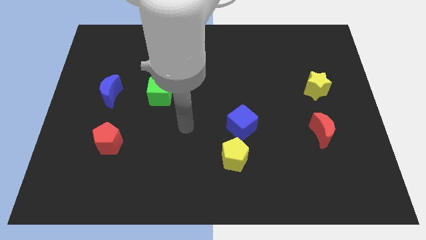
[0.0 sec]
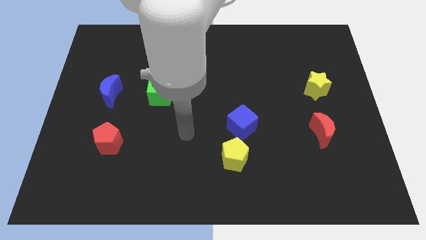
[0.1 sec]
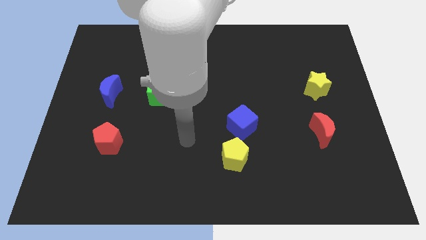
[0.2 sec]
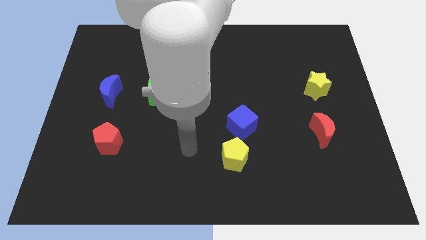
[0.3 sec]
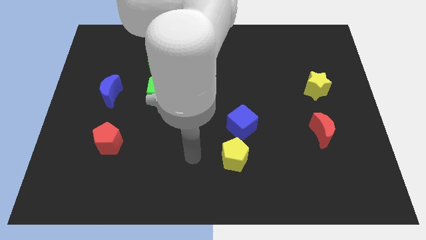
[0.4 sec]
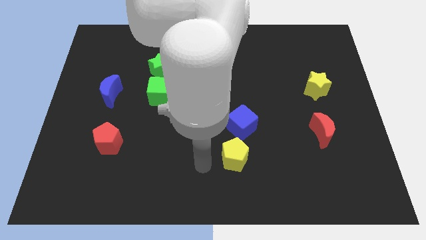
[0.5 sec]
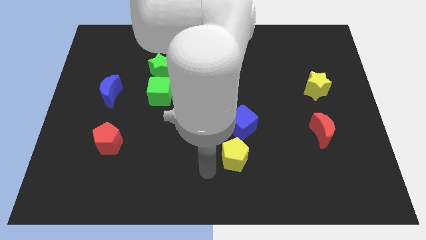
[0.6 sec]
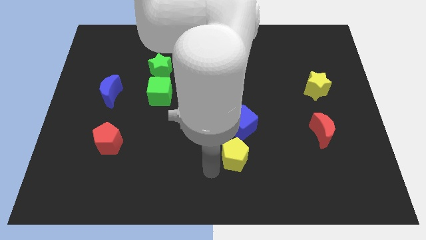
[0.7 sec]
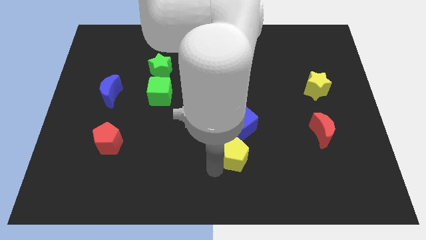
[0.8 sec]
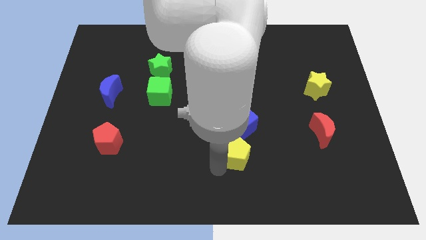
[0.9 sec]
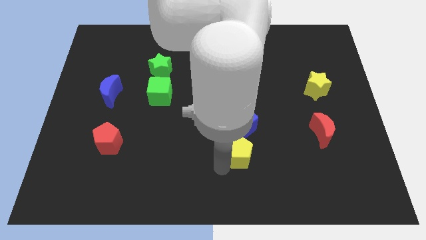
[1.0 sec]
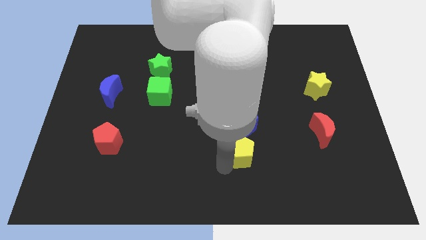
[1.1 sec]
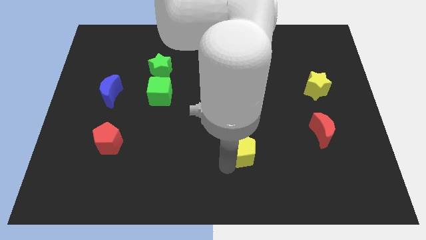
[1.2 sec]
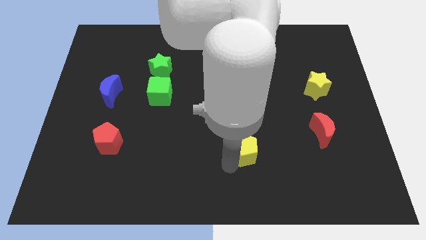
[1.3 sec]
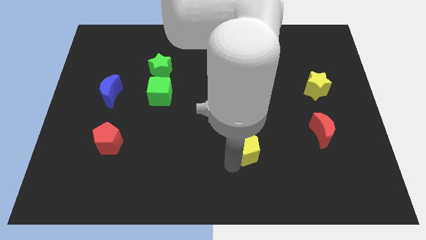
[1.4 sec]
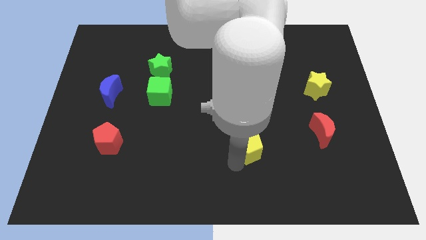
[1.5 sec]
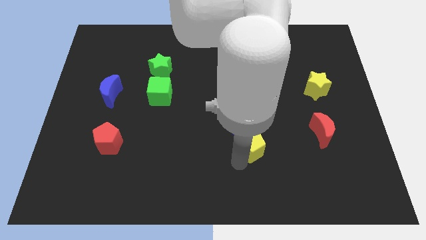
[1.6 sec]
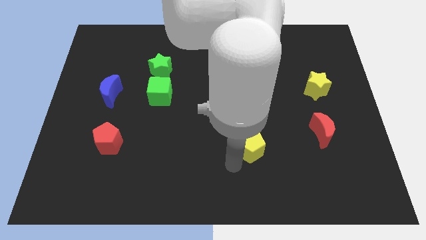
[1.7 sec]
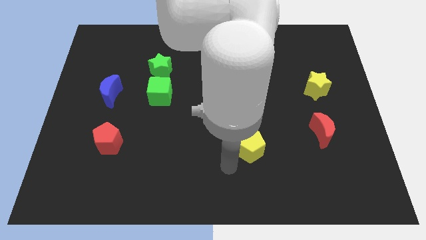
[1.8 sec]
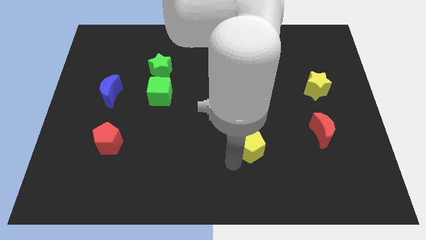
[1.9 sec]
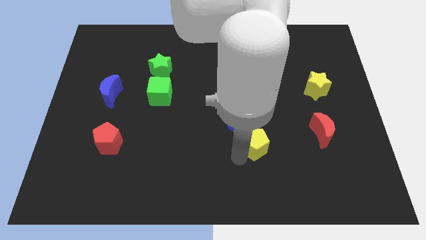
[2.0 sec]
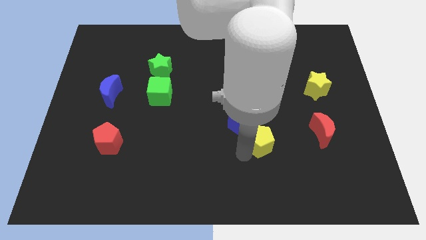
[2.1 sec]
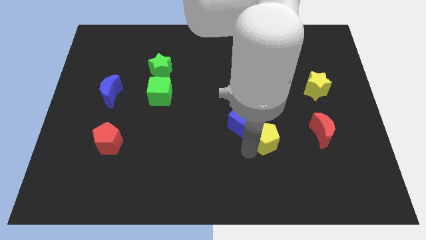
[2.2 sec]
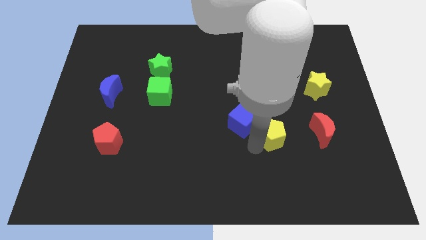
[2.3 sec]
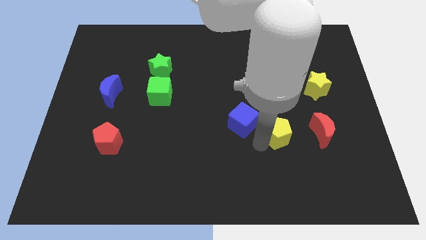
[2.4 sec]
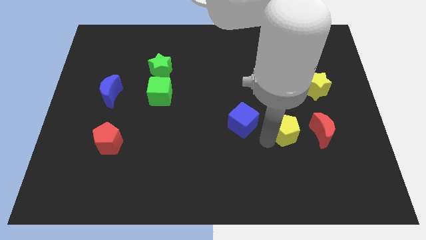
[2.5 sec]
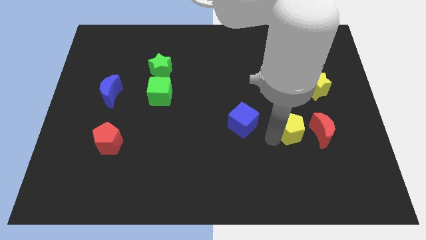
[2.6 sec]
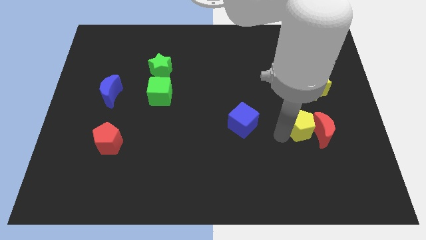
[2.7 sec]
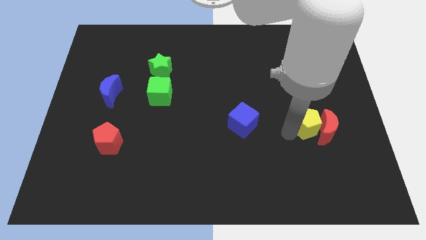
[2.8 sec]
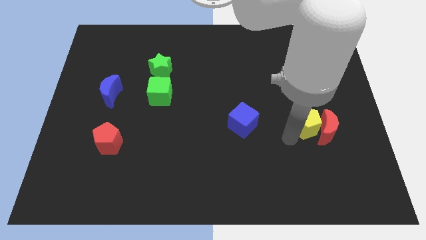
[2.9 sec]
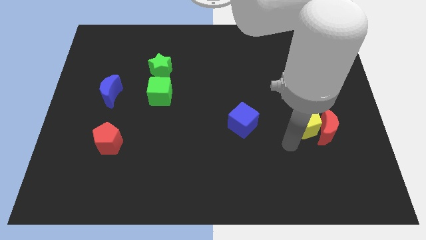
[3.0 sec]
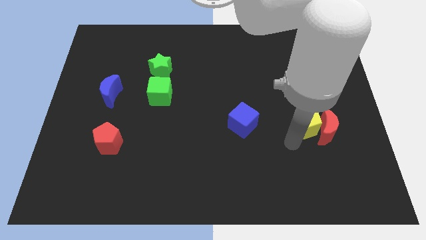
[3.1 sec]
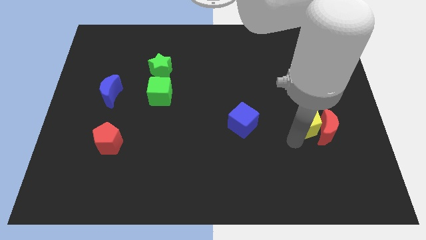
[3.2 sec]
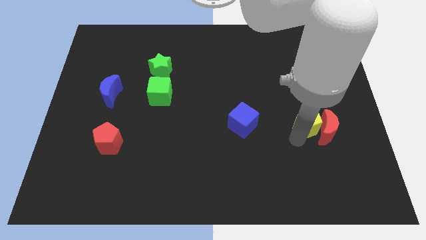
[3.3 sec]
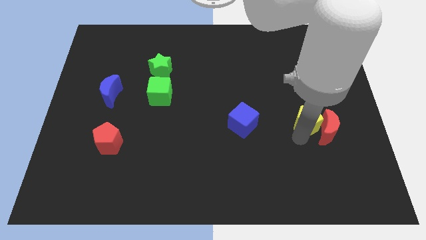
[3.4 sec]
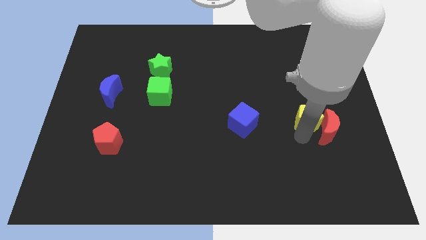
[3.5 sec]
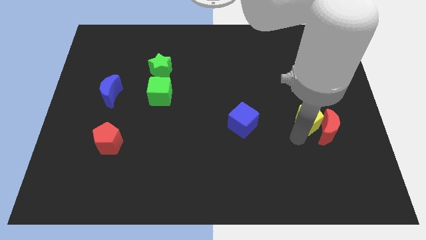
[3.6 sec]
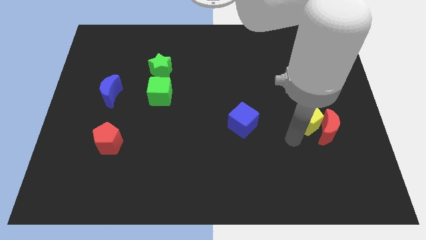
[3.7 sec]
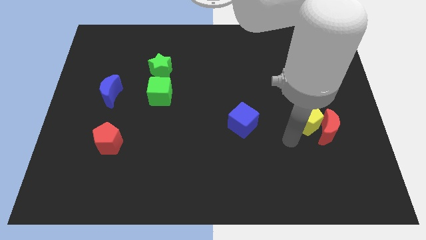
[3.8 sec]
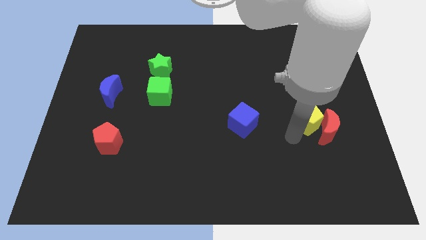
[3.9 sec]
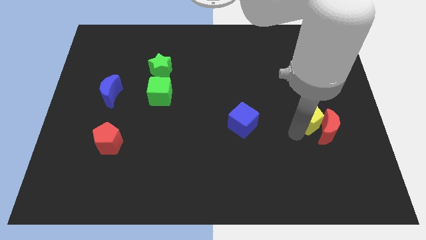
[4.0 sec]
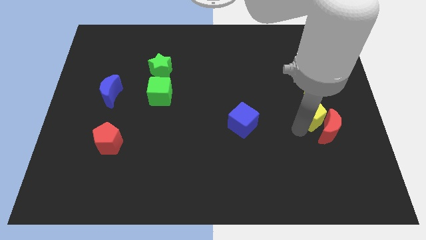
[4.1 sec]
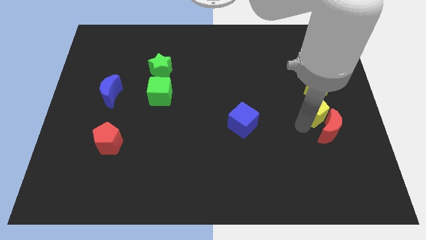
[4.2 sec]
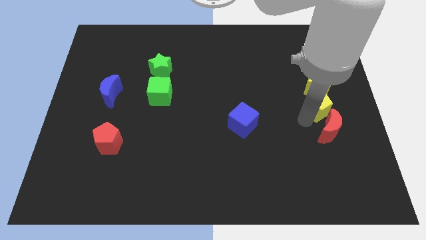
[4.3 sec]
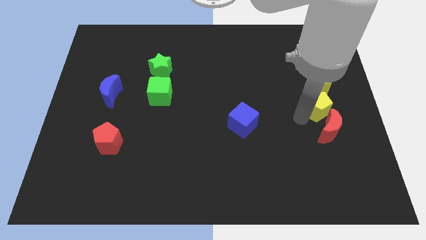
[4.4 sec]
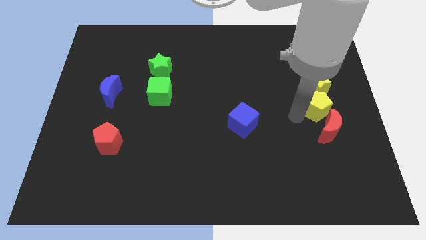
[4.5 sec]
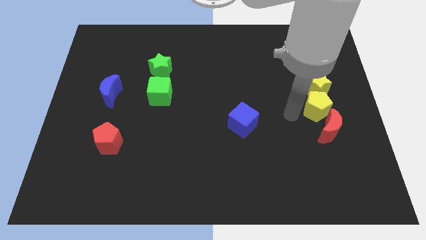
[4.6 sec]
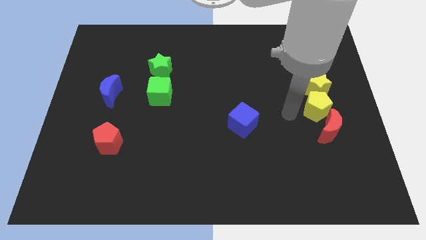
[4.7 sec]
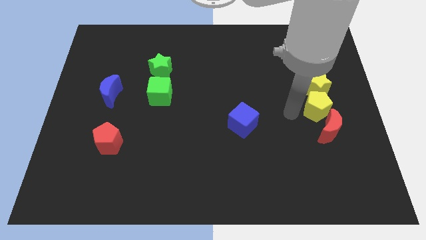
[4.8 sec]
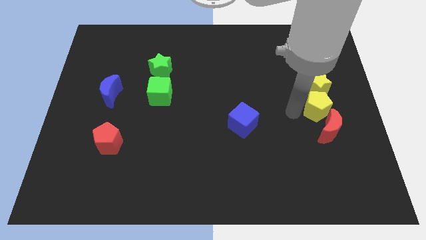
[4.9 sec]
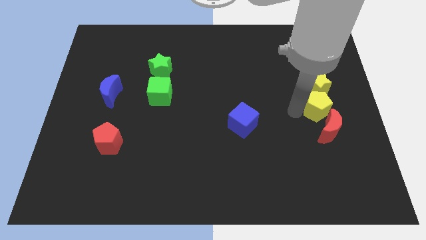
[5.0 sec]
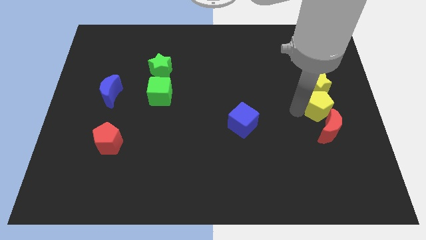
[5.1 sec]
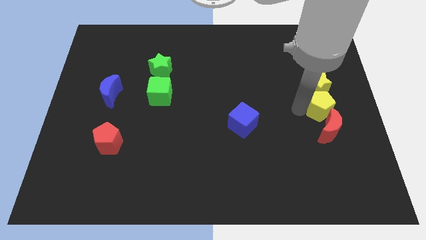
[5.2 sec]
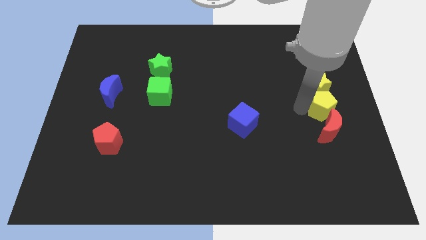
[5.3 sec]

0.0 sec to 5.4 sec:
put the yellow pentagon to the center right

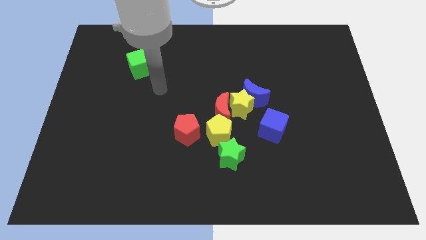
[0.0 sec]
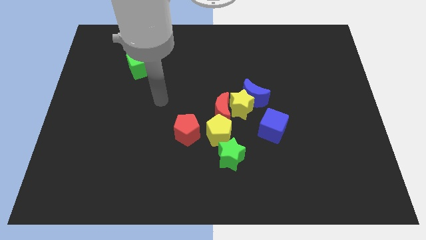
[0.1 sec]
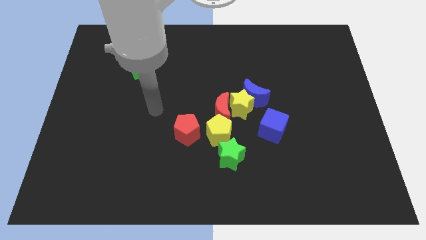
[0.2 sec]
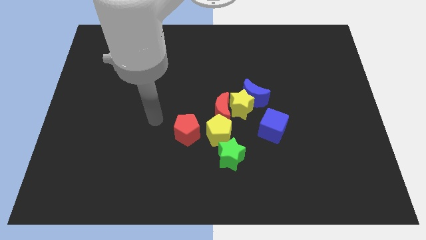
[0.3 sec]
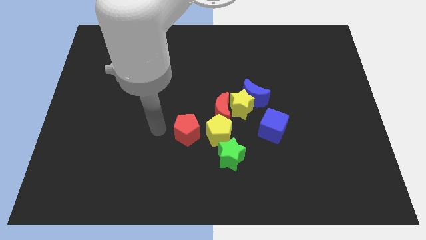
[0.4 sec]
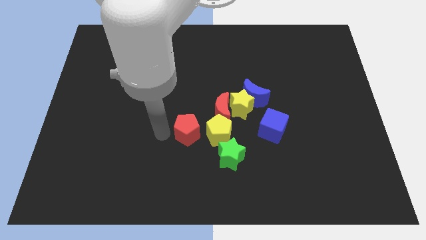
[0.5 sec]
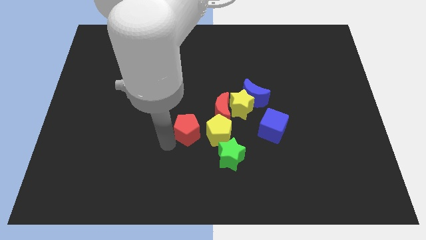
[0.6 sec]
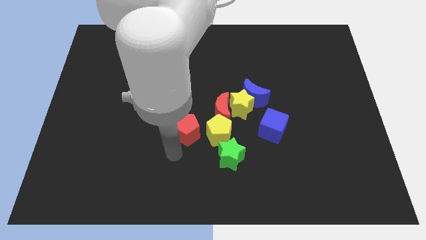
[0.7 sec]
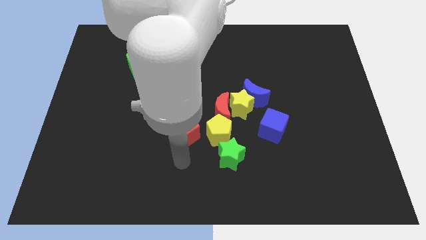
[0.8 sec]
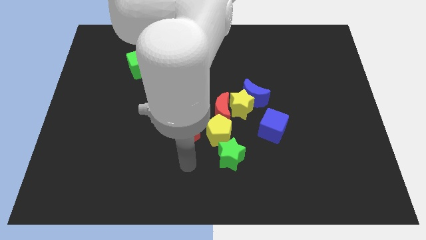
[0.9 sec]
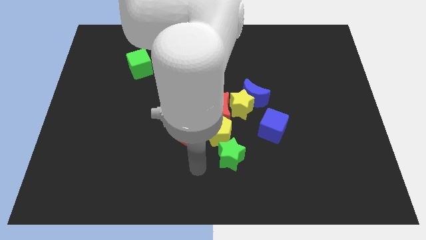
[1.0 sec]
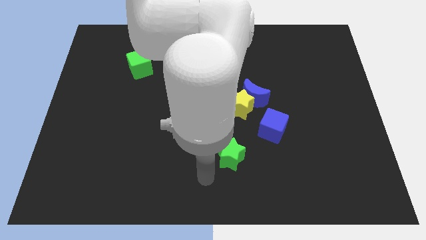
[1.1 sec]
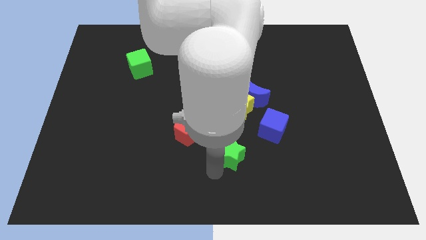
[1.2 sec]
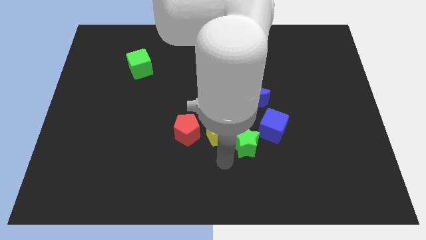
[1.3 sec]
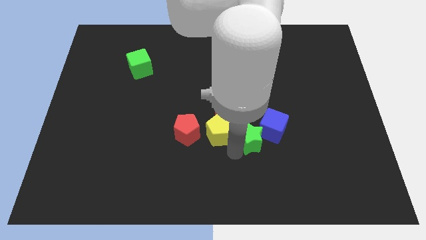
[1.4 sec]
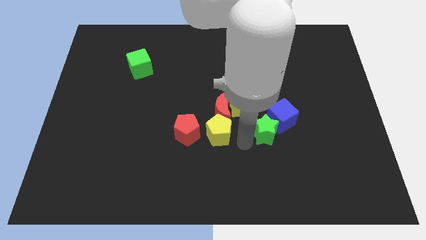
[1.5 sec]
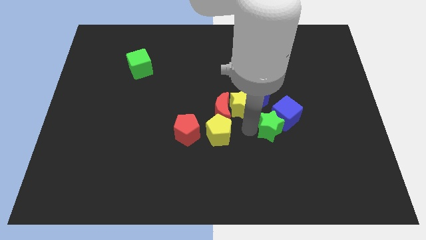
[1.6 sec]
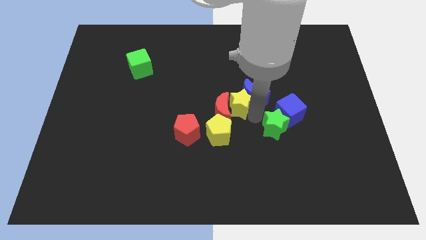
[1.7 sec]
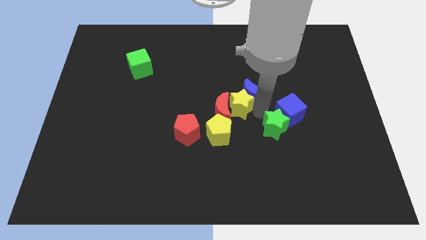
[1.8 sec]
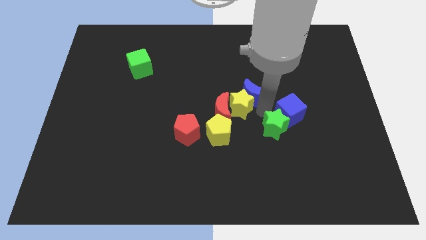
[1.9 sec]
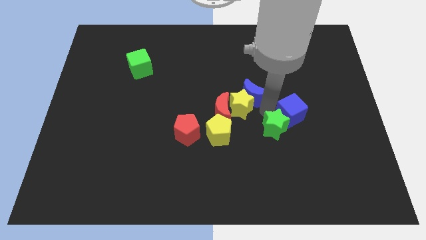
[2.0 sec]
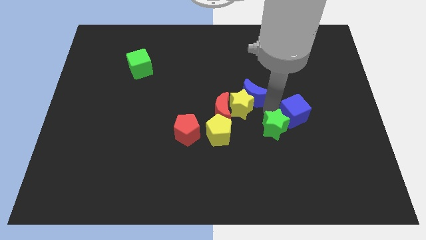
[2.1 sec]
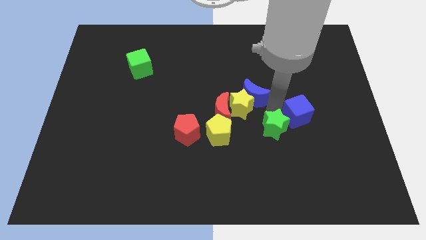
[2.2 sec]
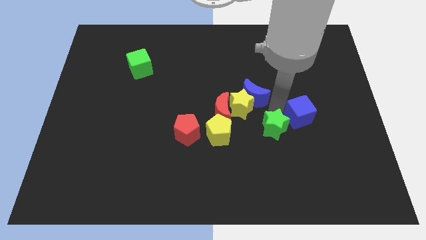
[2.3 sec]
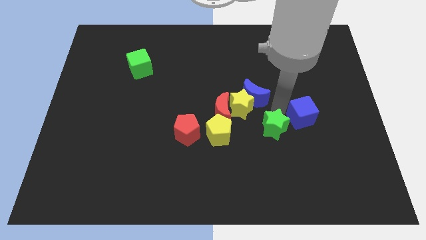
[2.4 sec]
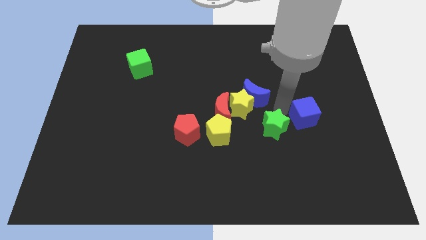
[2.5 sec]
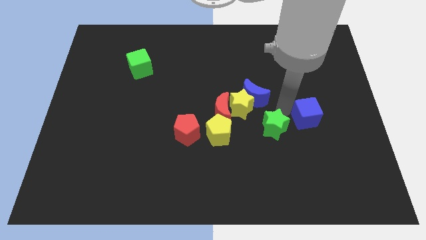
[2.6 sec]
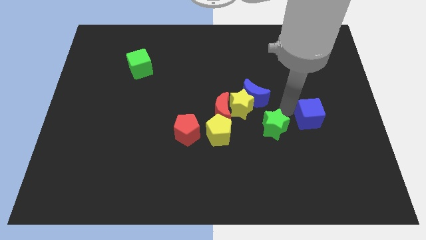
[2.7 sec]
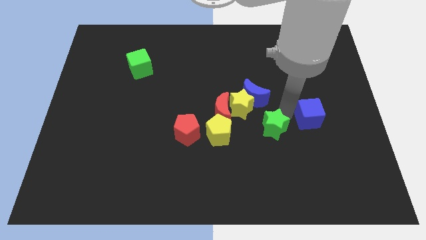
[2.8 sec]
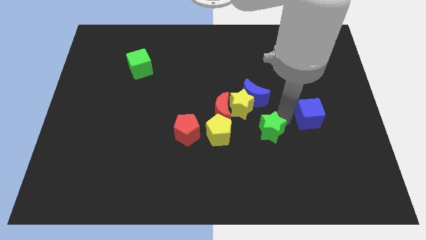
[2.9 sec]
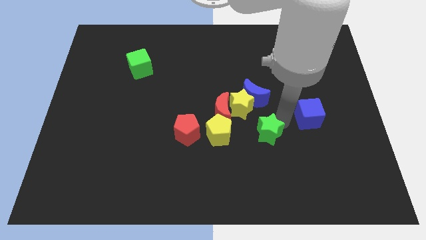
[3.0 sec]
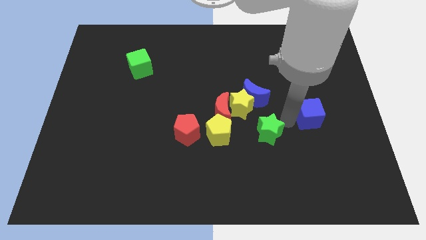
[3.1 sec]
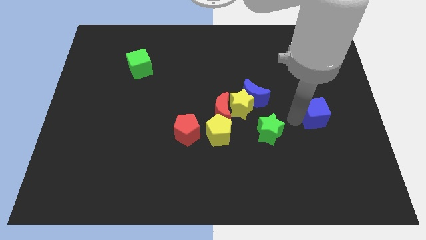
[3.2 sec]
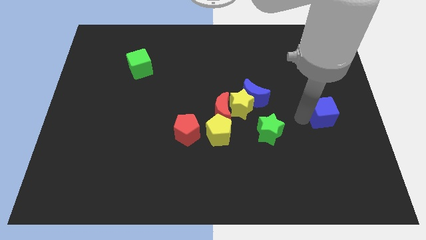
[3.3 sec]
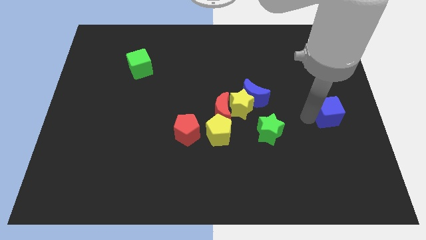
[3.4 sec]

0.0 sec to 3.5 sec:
slide the blue cube to the right side of the board
